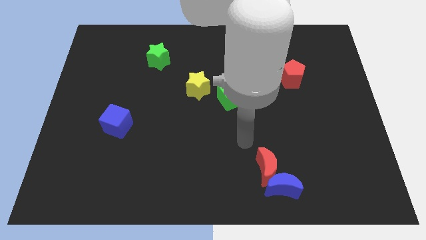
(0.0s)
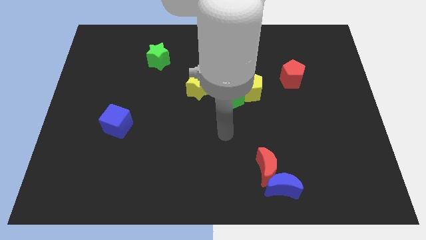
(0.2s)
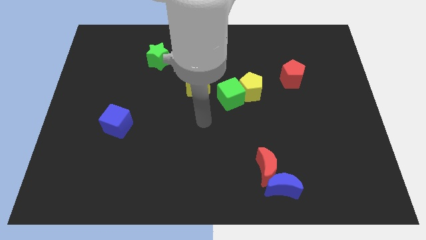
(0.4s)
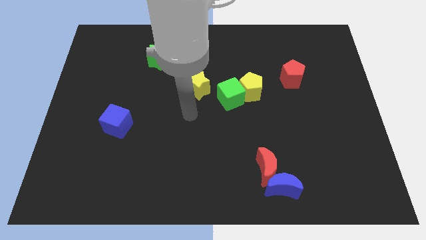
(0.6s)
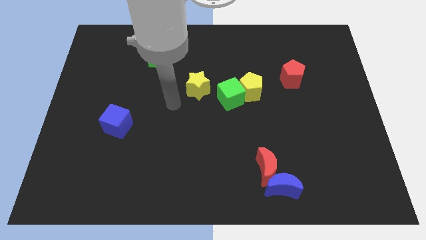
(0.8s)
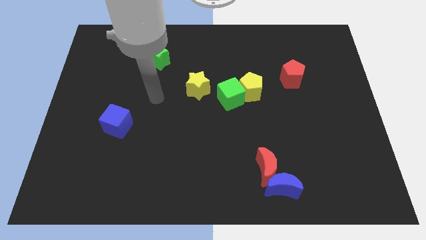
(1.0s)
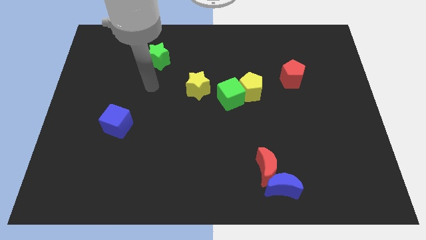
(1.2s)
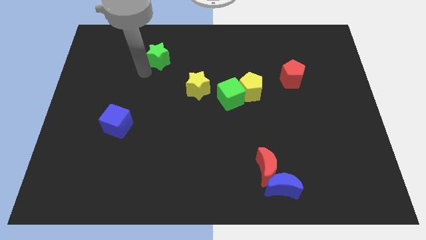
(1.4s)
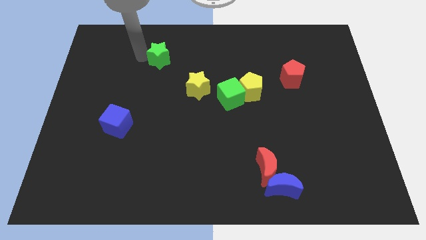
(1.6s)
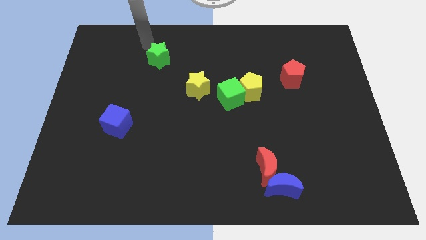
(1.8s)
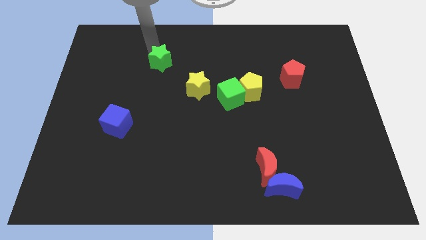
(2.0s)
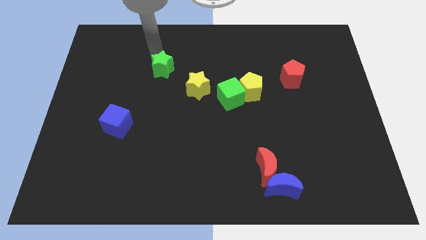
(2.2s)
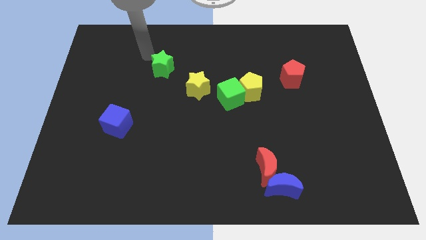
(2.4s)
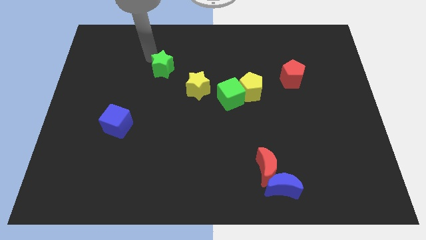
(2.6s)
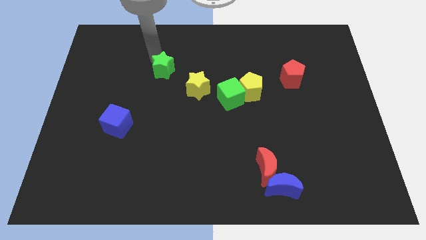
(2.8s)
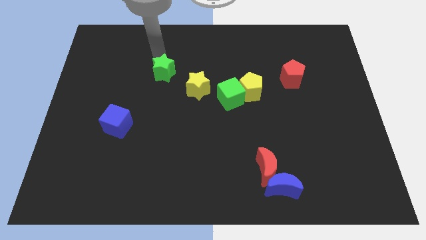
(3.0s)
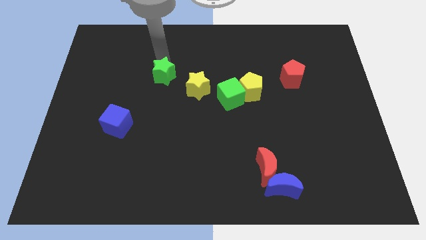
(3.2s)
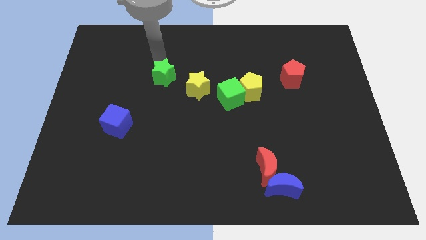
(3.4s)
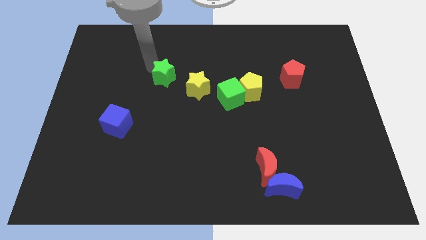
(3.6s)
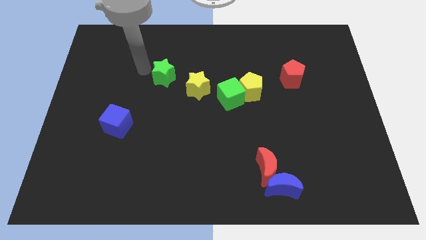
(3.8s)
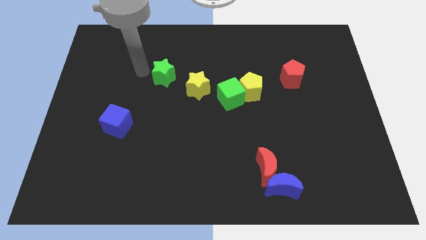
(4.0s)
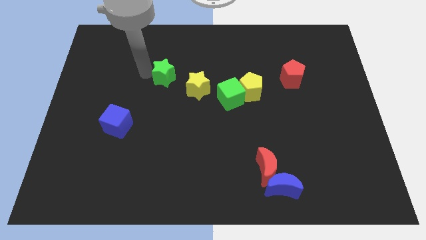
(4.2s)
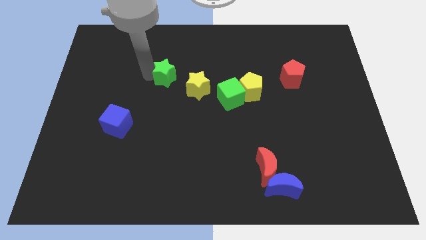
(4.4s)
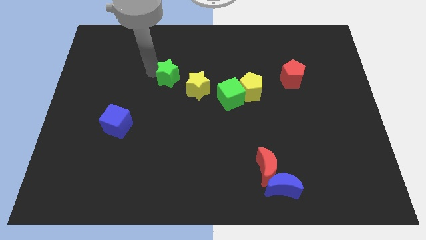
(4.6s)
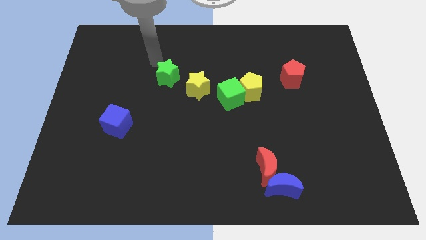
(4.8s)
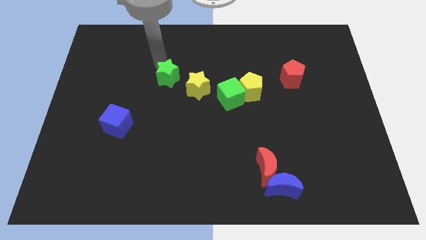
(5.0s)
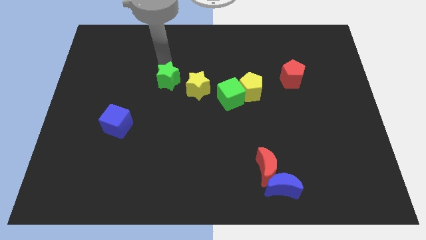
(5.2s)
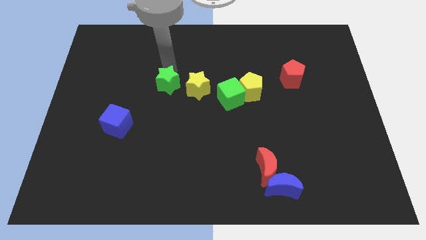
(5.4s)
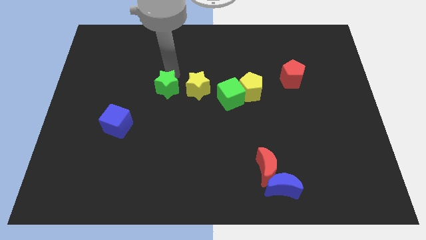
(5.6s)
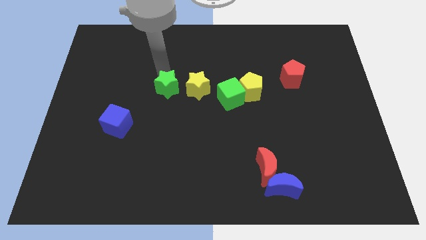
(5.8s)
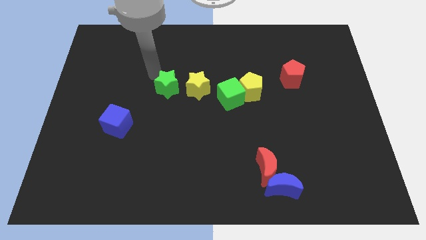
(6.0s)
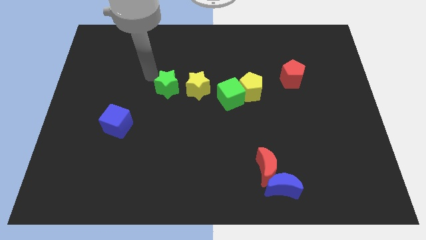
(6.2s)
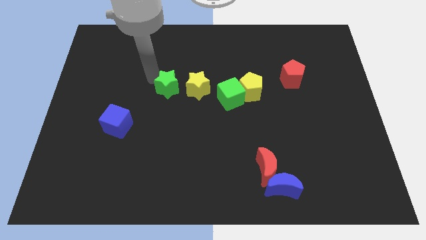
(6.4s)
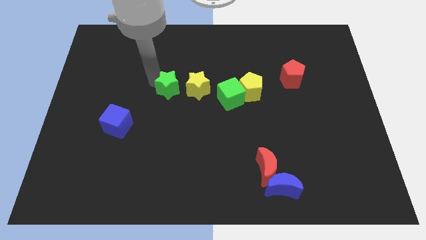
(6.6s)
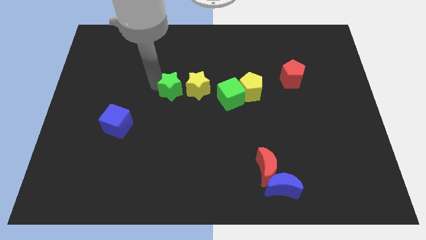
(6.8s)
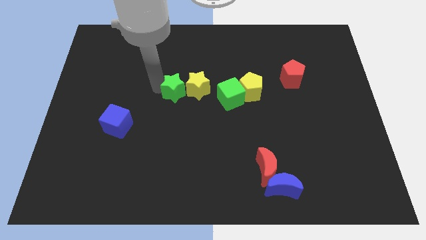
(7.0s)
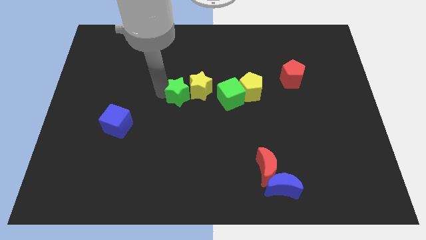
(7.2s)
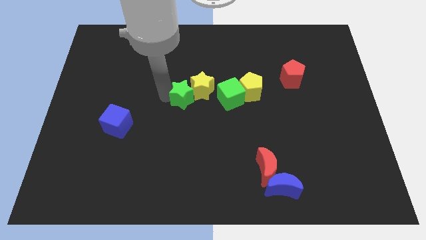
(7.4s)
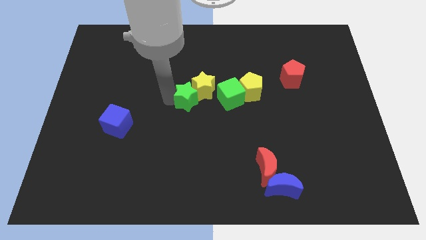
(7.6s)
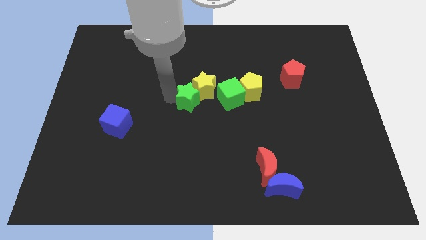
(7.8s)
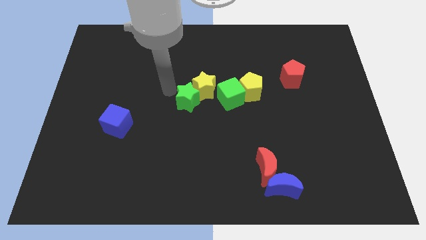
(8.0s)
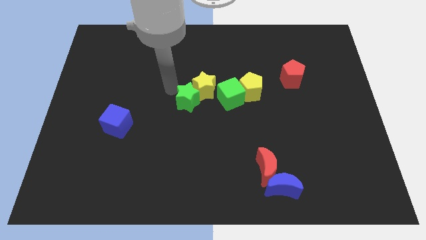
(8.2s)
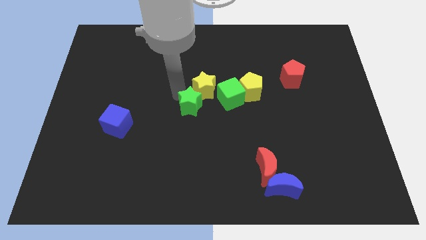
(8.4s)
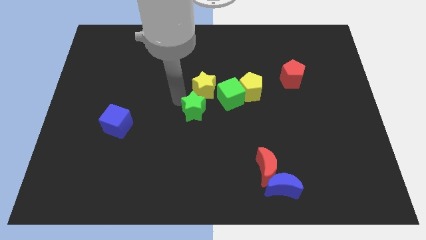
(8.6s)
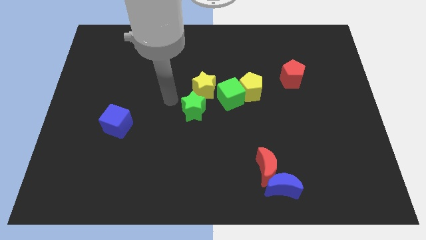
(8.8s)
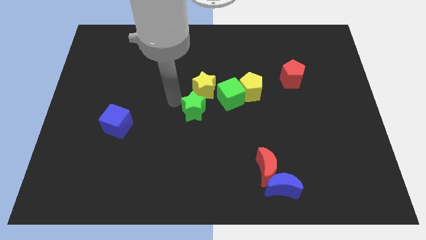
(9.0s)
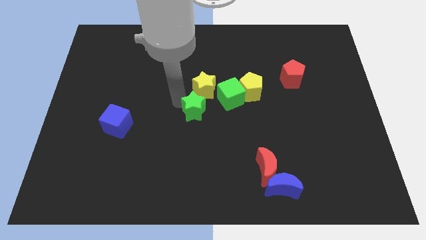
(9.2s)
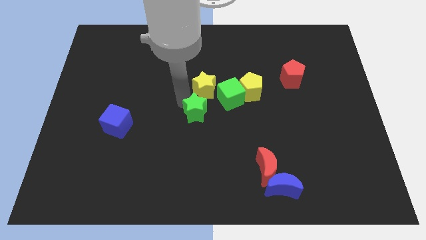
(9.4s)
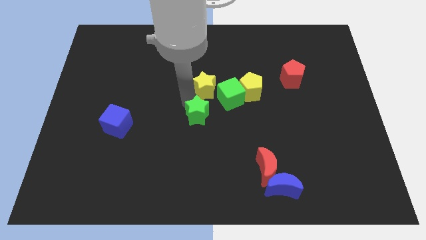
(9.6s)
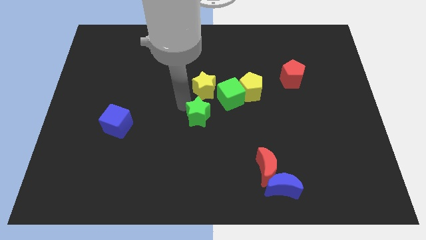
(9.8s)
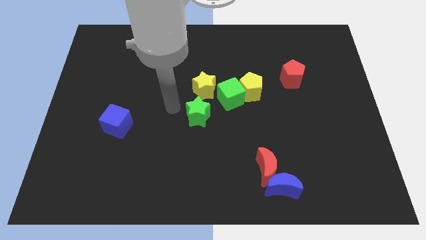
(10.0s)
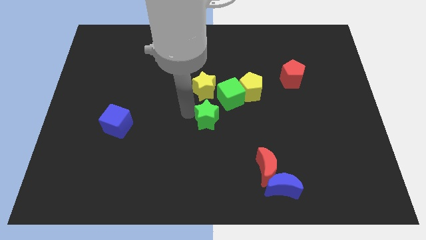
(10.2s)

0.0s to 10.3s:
slide the green star downwards and to the right diagonally

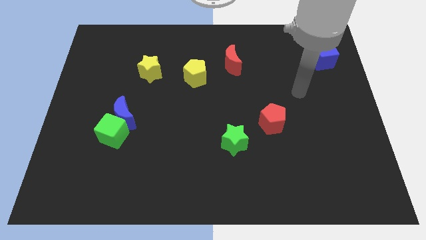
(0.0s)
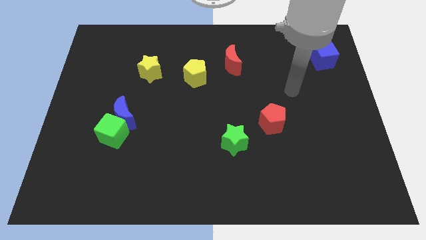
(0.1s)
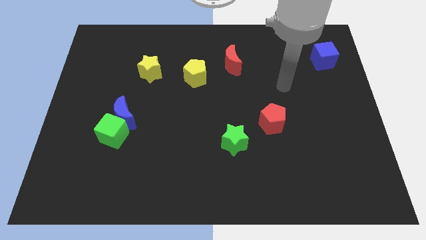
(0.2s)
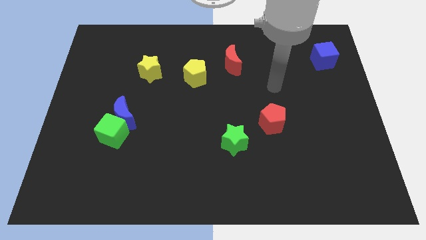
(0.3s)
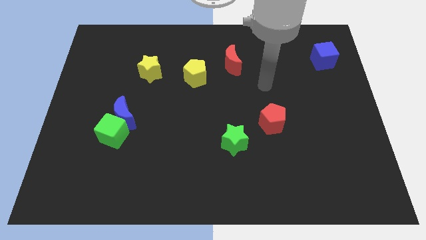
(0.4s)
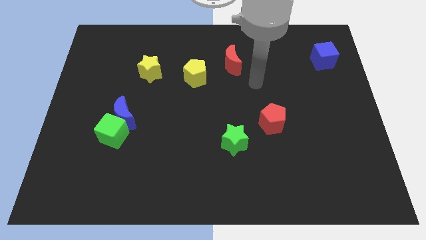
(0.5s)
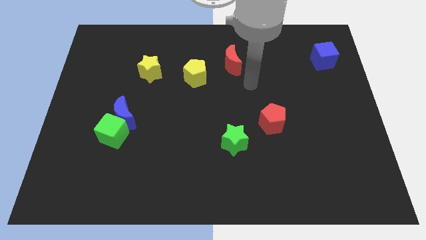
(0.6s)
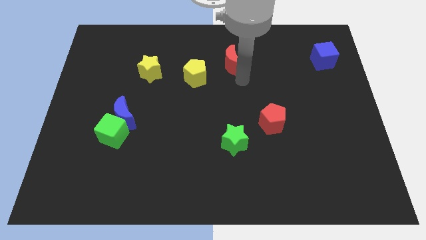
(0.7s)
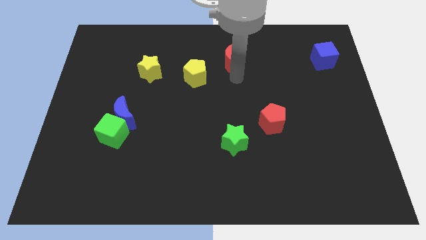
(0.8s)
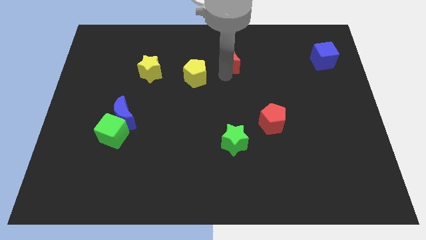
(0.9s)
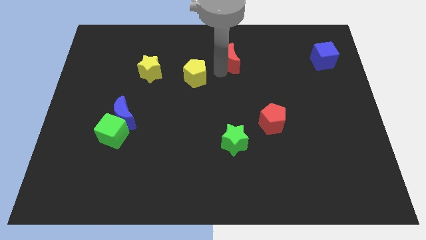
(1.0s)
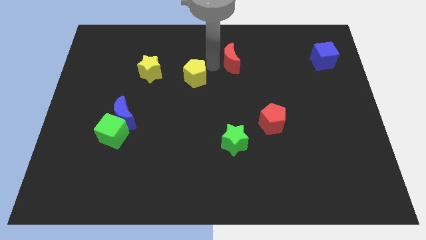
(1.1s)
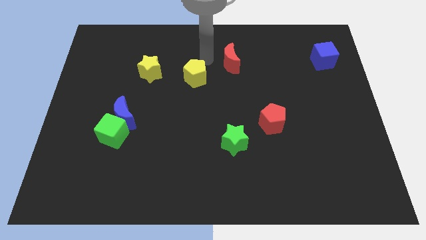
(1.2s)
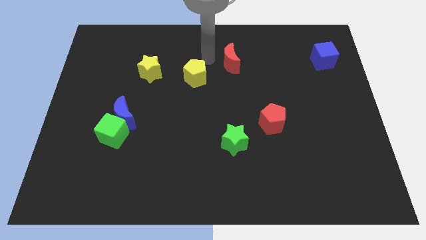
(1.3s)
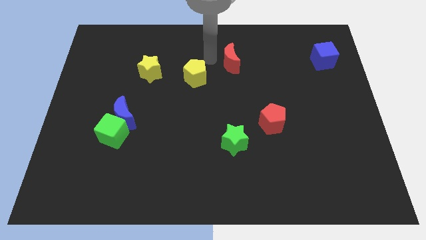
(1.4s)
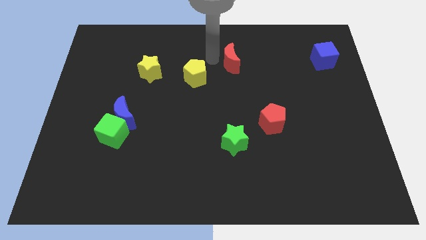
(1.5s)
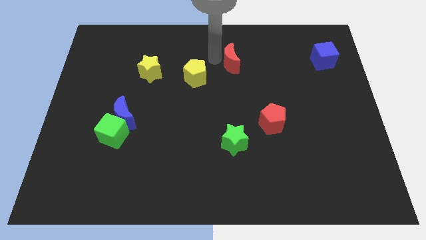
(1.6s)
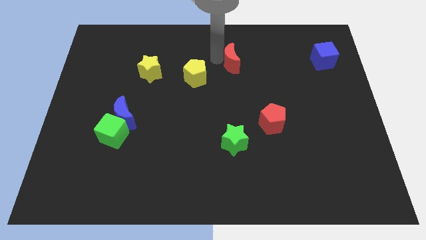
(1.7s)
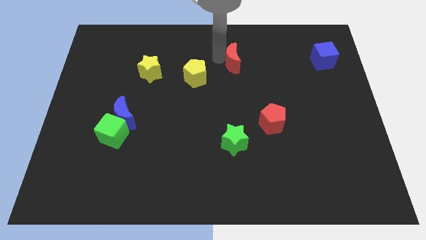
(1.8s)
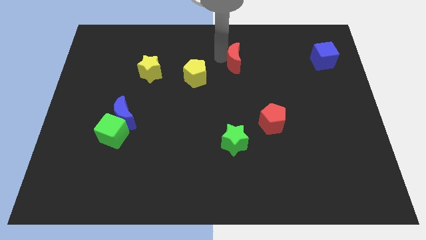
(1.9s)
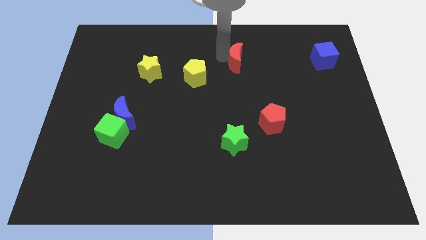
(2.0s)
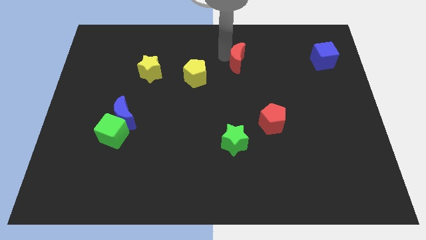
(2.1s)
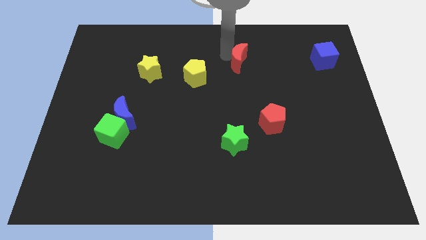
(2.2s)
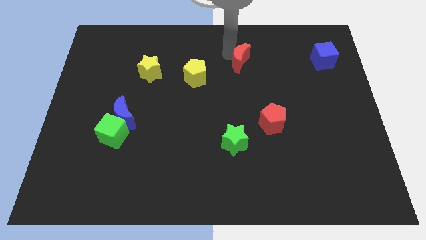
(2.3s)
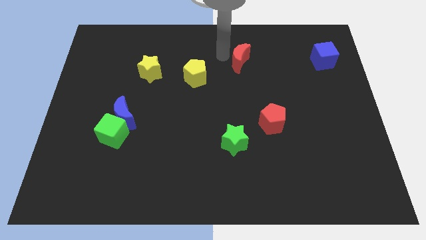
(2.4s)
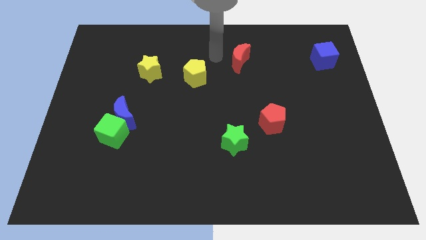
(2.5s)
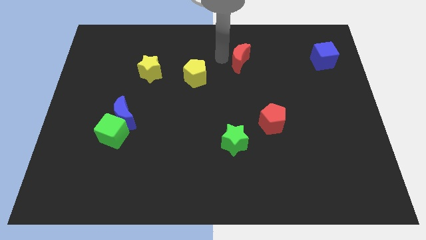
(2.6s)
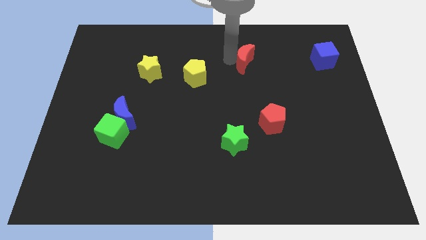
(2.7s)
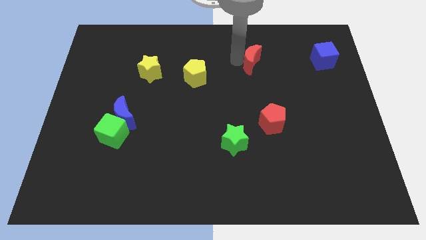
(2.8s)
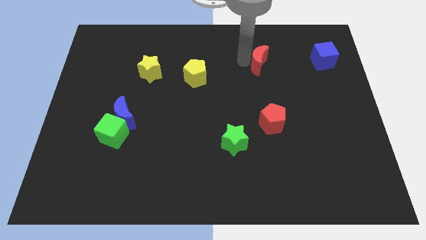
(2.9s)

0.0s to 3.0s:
slightly push the red moon to the right
